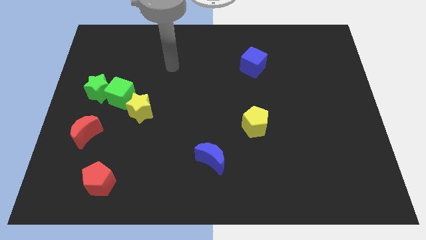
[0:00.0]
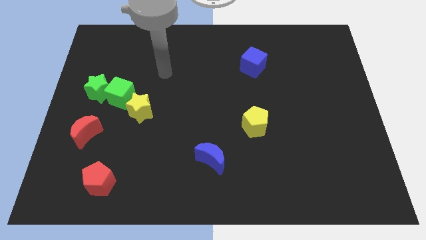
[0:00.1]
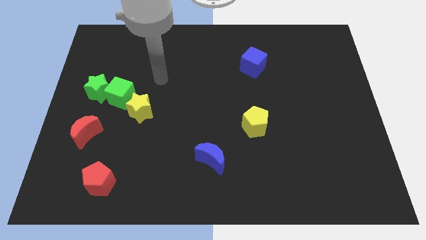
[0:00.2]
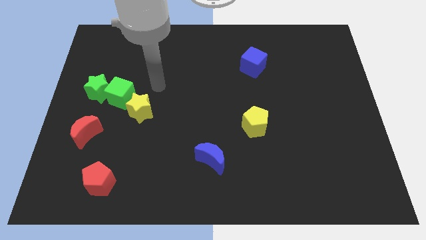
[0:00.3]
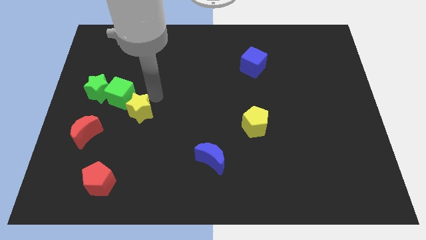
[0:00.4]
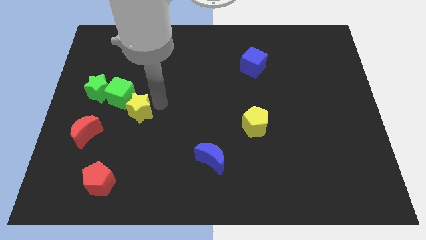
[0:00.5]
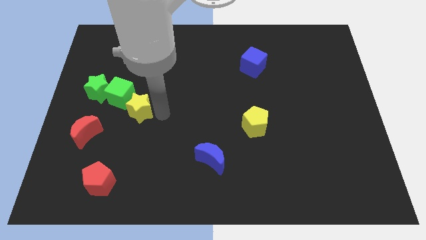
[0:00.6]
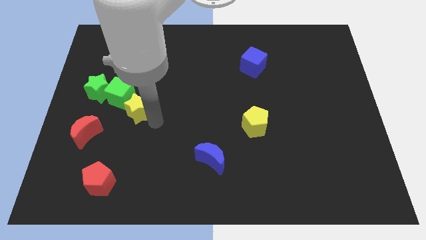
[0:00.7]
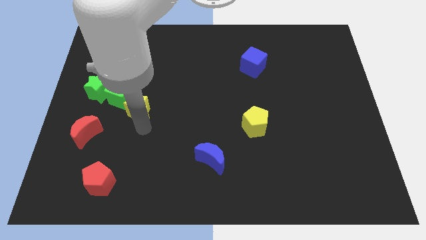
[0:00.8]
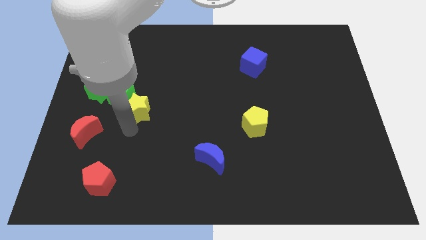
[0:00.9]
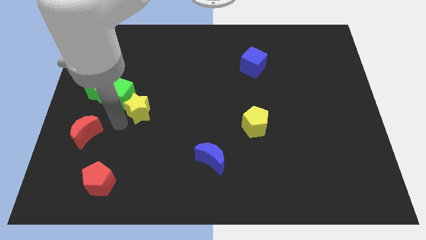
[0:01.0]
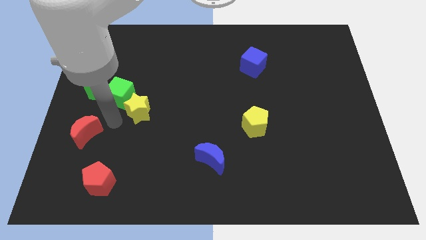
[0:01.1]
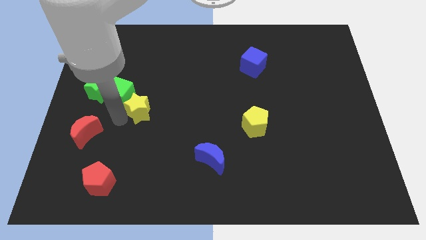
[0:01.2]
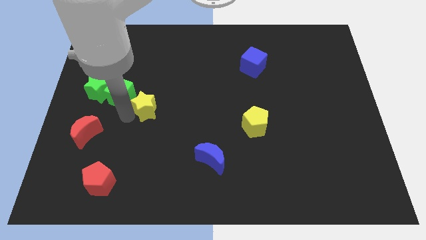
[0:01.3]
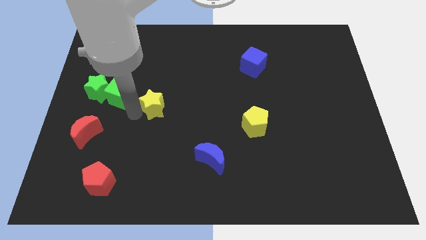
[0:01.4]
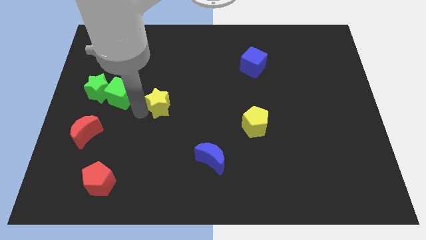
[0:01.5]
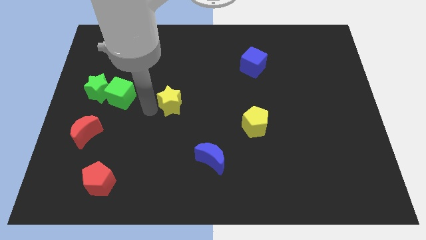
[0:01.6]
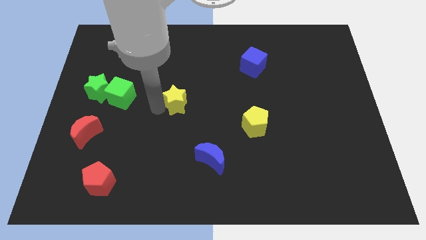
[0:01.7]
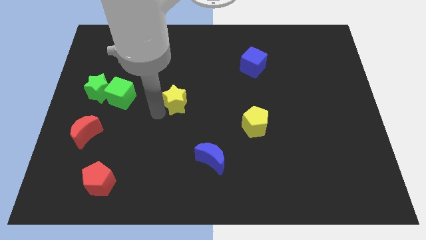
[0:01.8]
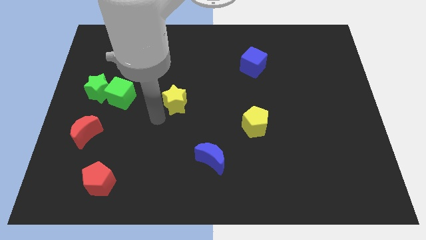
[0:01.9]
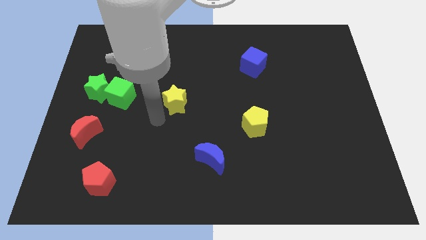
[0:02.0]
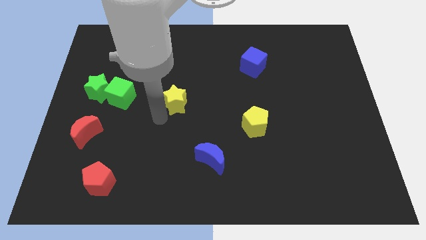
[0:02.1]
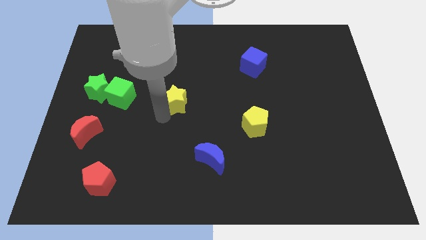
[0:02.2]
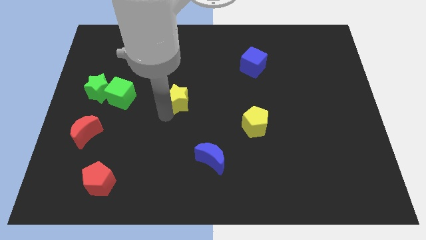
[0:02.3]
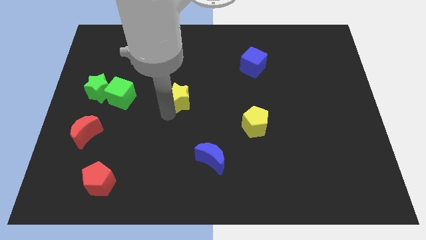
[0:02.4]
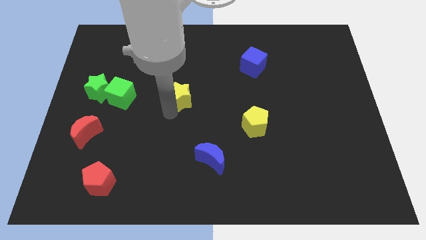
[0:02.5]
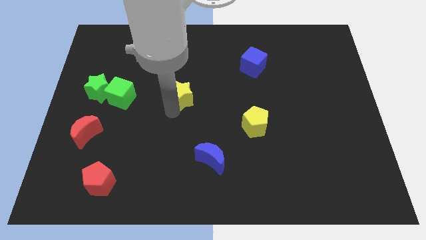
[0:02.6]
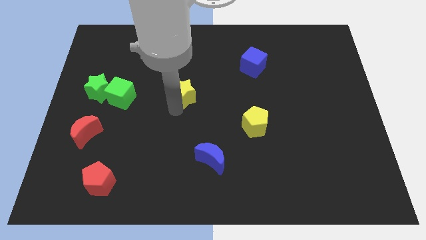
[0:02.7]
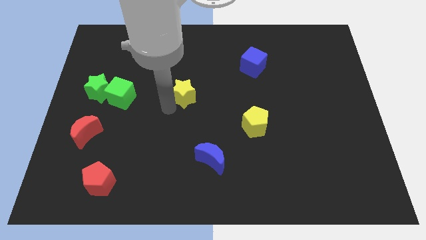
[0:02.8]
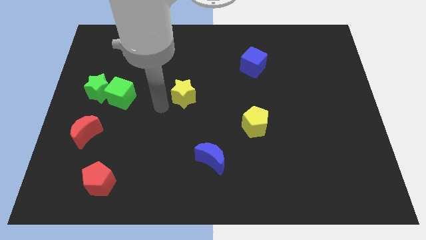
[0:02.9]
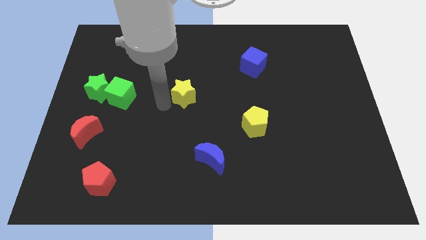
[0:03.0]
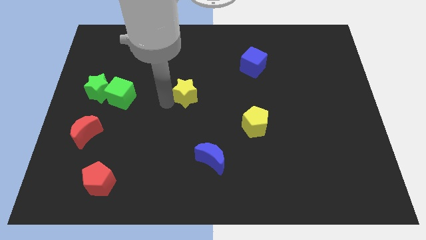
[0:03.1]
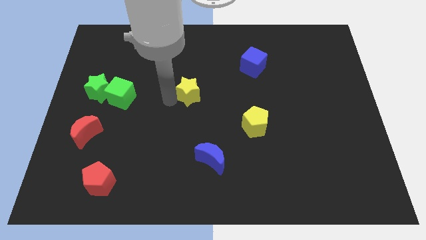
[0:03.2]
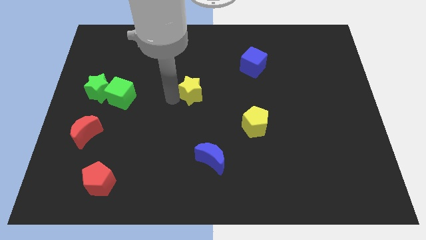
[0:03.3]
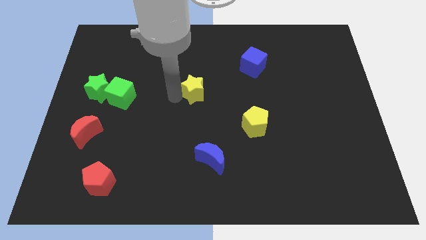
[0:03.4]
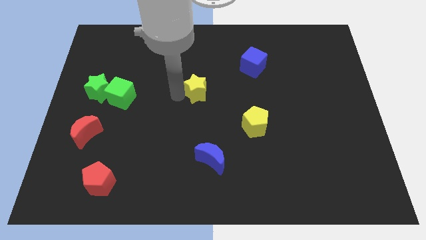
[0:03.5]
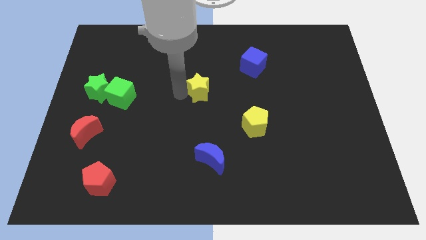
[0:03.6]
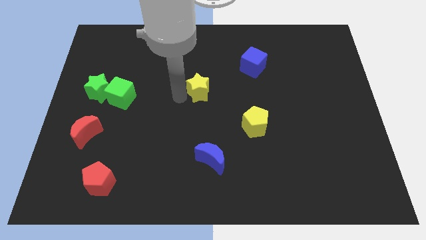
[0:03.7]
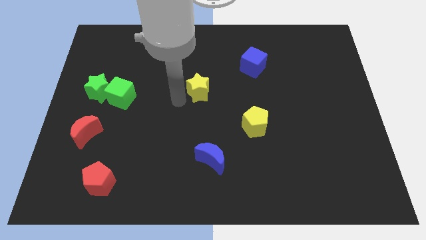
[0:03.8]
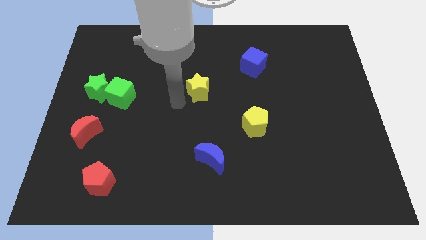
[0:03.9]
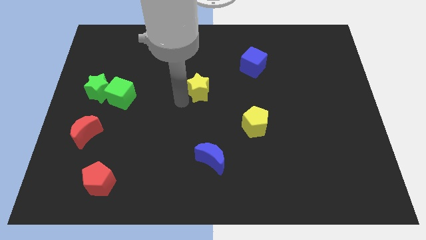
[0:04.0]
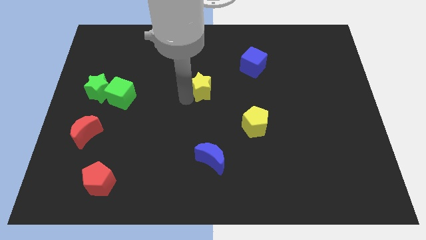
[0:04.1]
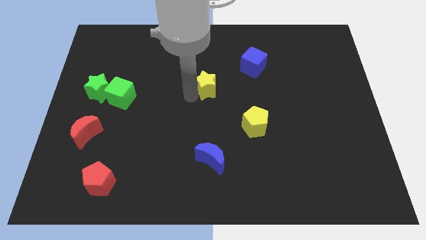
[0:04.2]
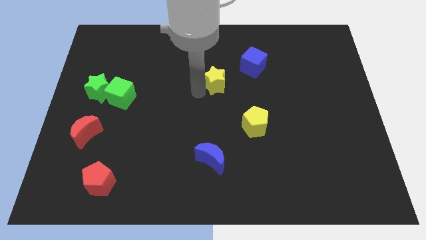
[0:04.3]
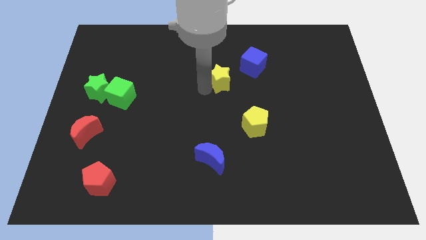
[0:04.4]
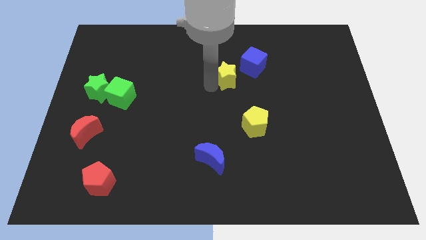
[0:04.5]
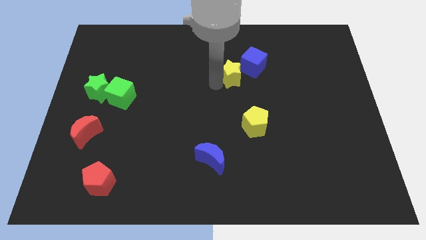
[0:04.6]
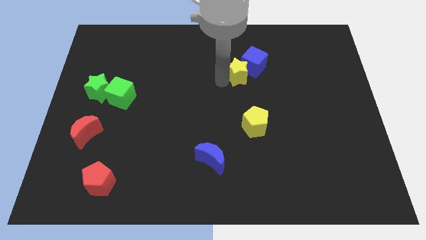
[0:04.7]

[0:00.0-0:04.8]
slide the yellow star close to the blue cube

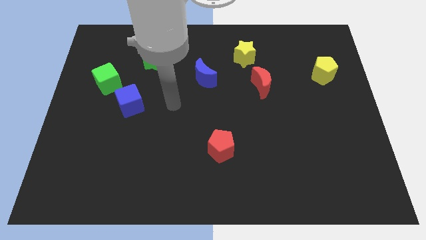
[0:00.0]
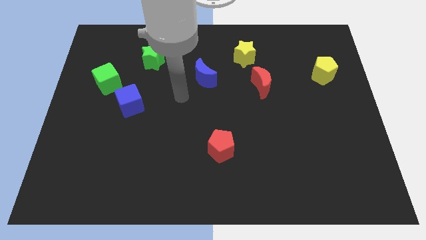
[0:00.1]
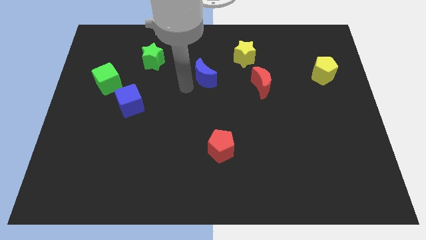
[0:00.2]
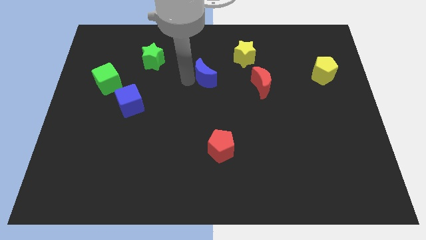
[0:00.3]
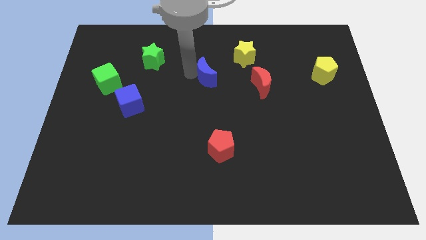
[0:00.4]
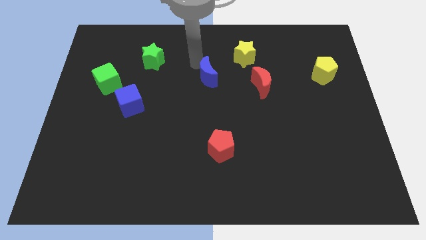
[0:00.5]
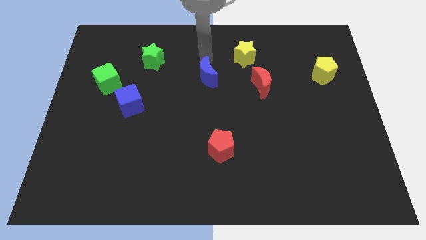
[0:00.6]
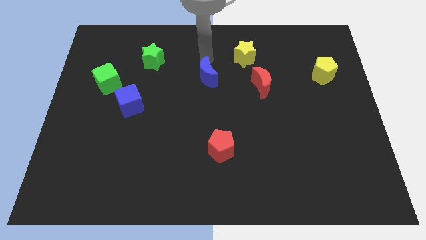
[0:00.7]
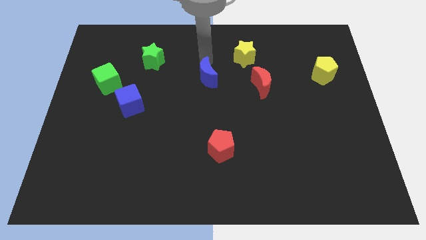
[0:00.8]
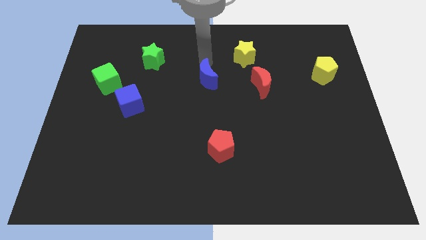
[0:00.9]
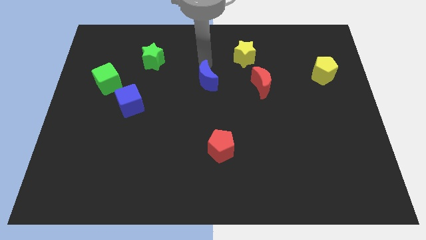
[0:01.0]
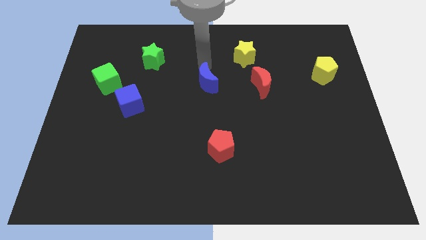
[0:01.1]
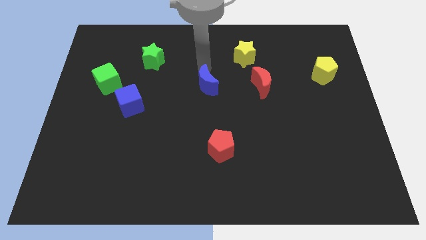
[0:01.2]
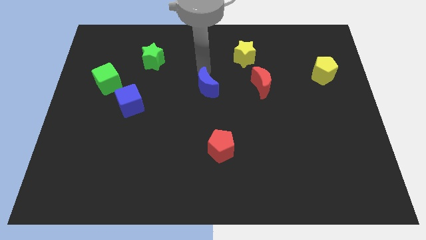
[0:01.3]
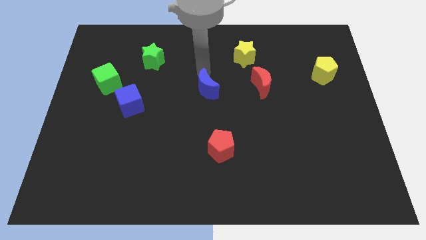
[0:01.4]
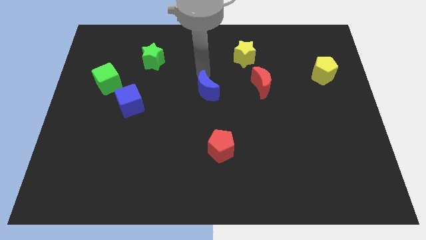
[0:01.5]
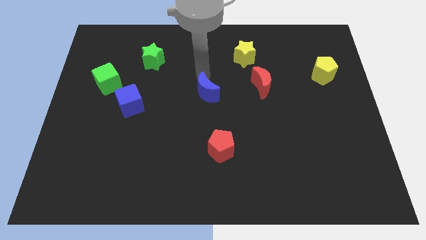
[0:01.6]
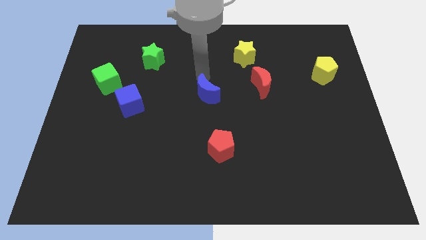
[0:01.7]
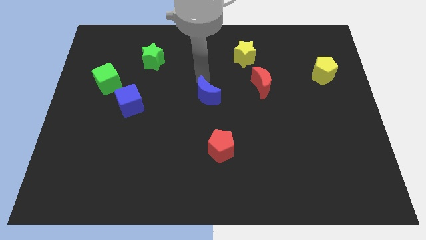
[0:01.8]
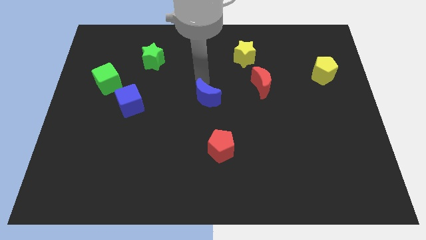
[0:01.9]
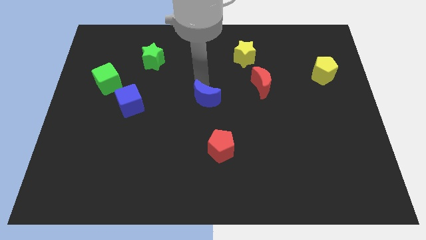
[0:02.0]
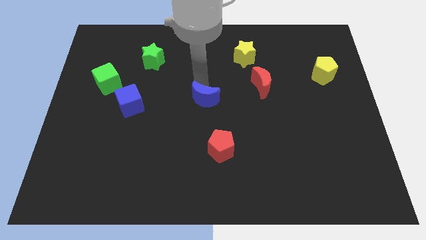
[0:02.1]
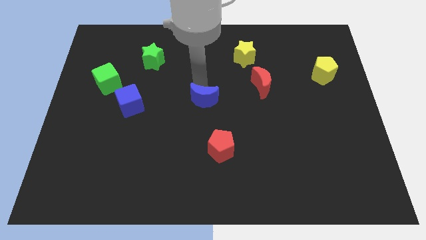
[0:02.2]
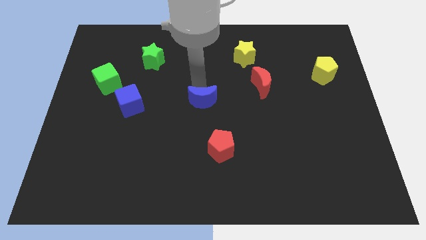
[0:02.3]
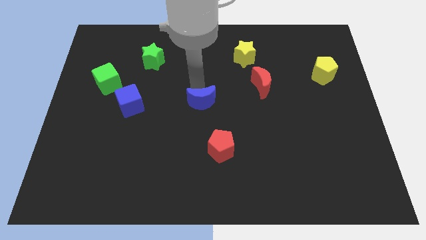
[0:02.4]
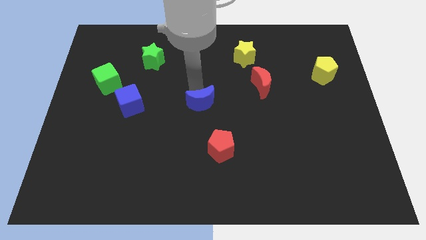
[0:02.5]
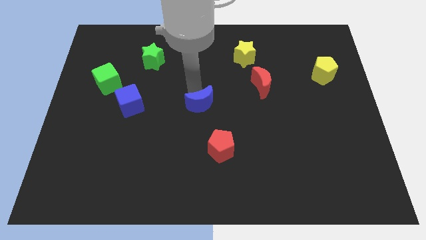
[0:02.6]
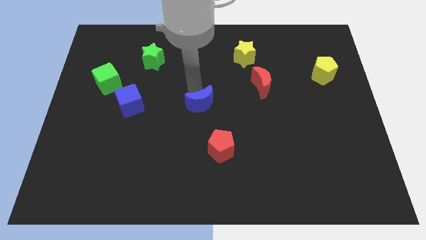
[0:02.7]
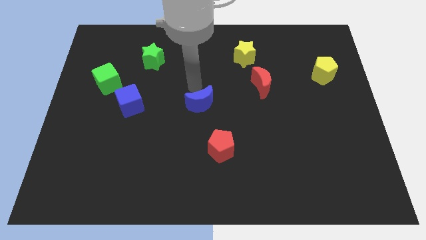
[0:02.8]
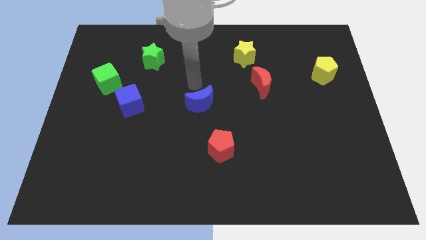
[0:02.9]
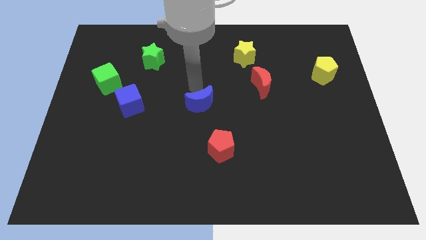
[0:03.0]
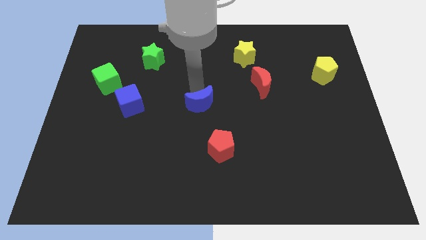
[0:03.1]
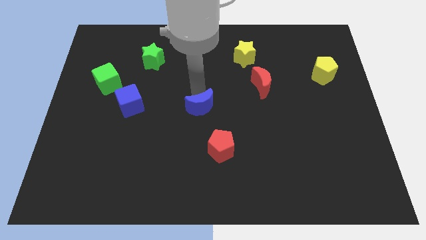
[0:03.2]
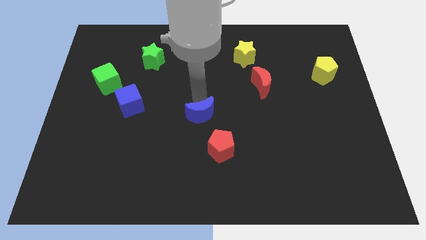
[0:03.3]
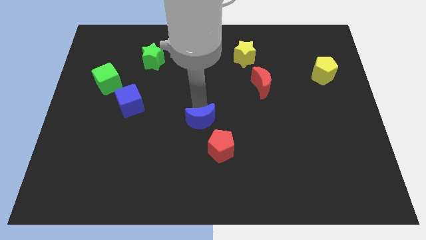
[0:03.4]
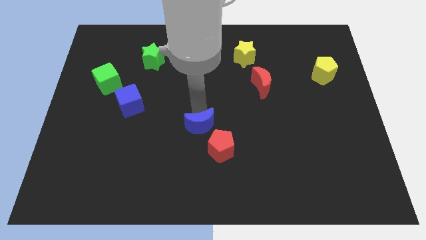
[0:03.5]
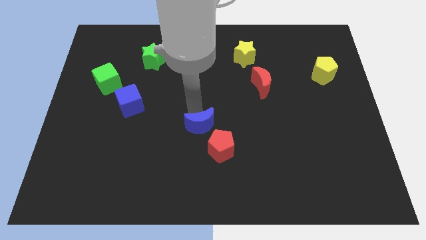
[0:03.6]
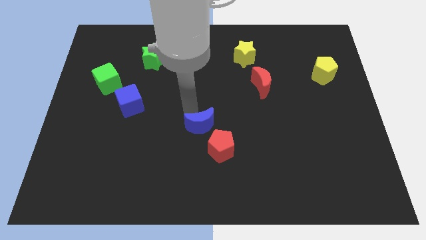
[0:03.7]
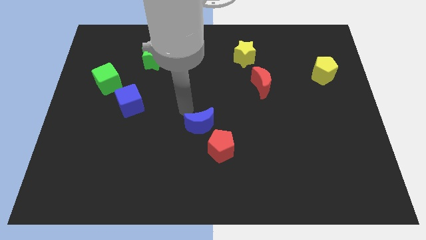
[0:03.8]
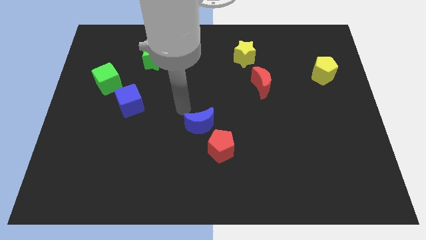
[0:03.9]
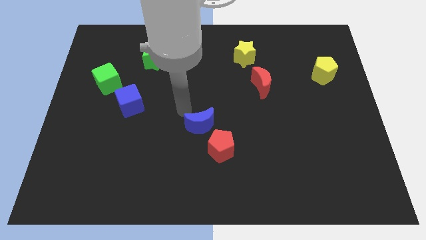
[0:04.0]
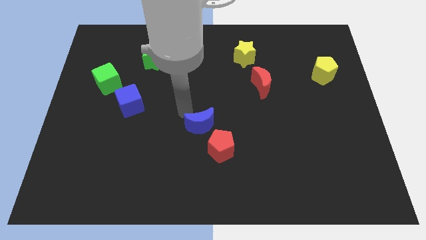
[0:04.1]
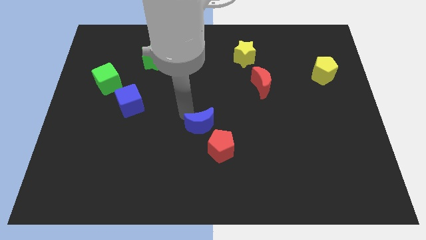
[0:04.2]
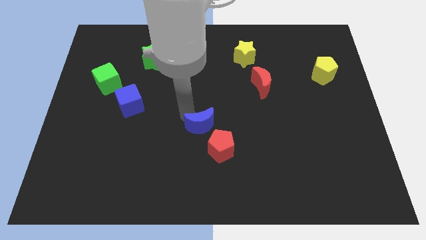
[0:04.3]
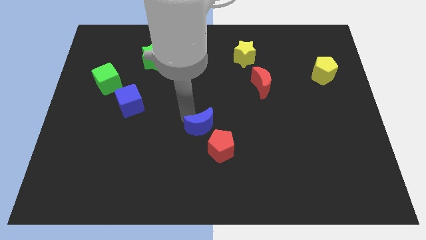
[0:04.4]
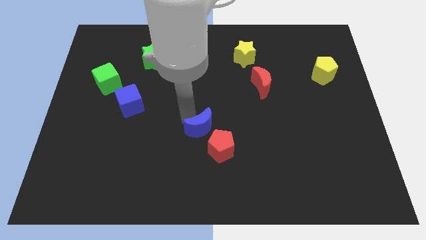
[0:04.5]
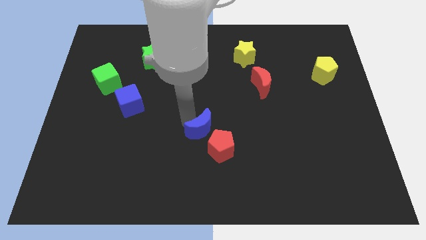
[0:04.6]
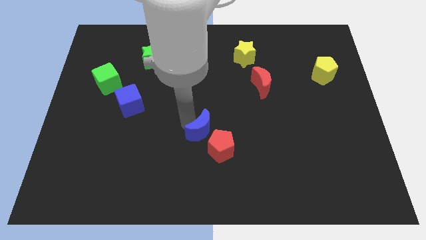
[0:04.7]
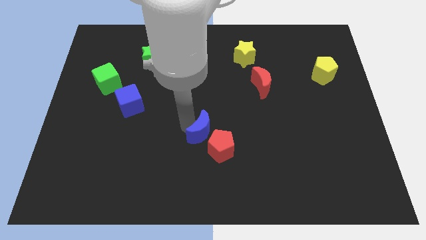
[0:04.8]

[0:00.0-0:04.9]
push the blue moon close to the red pentagon
